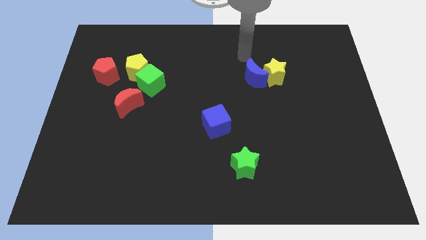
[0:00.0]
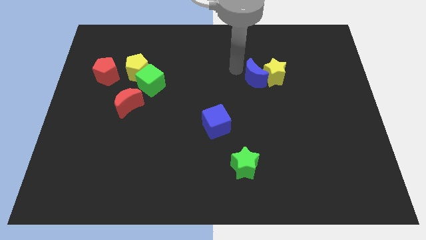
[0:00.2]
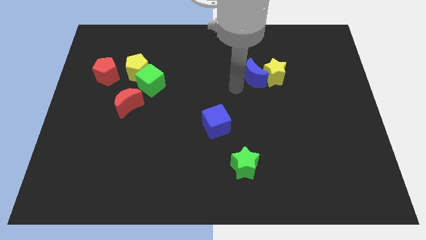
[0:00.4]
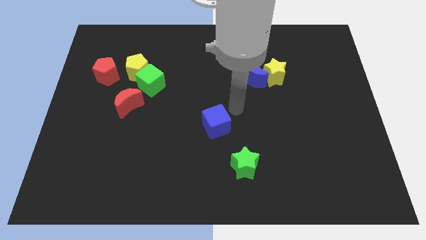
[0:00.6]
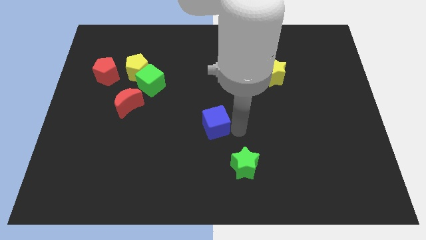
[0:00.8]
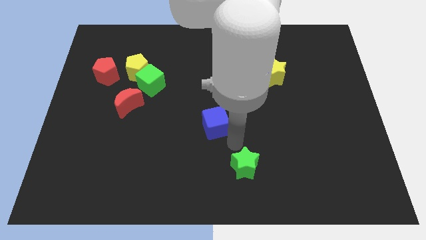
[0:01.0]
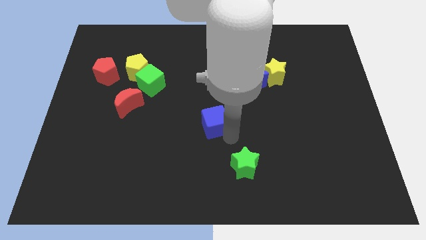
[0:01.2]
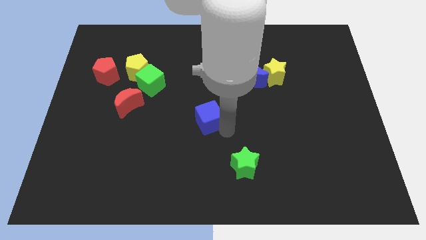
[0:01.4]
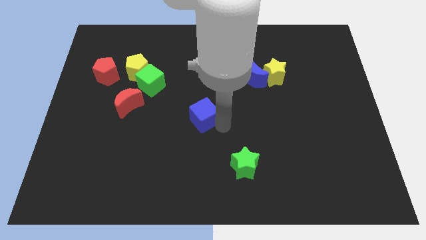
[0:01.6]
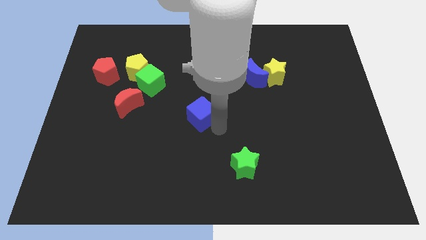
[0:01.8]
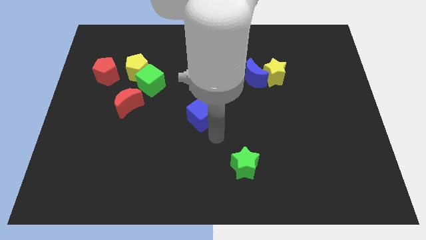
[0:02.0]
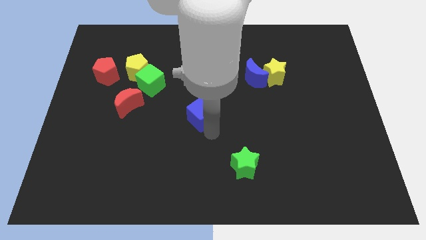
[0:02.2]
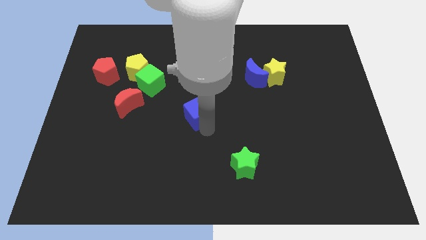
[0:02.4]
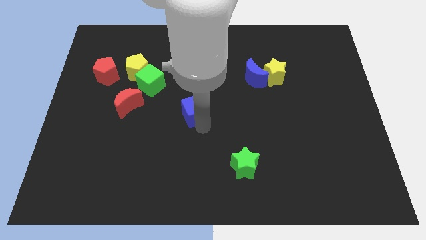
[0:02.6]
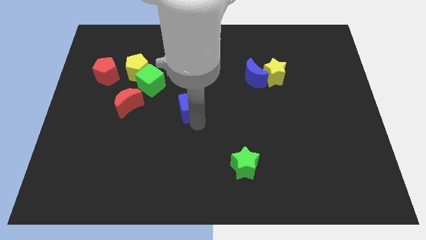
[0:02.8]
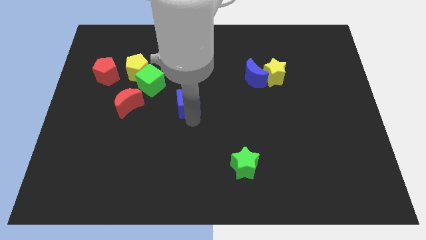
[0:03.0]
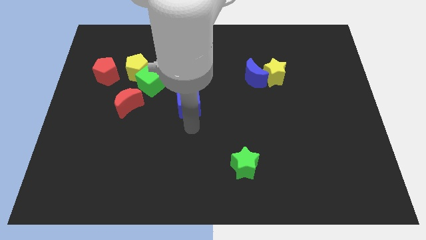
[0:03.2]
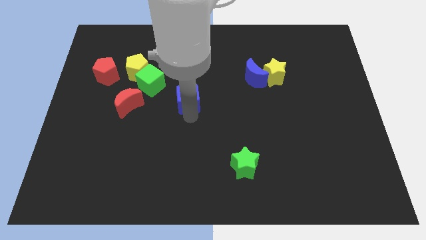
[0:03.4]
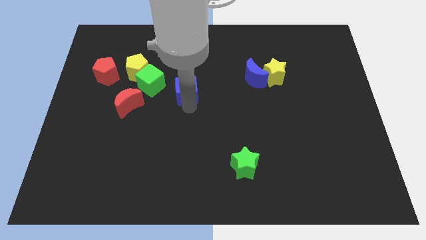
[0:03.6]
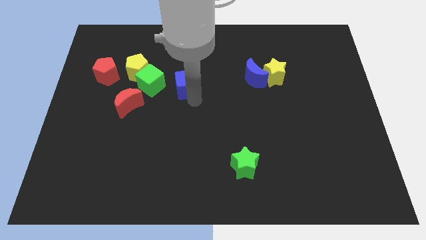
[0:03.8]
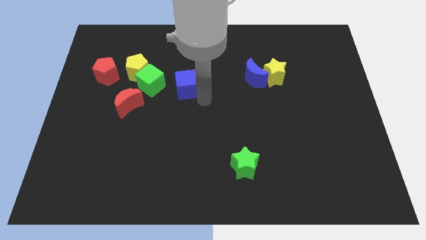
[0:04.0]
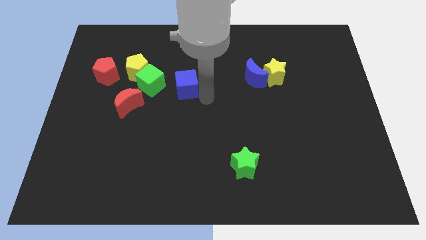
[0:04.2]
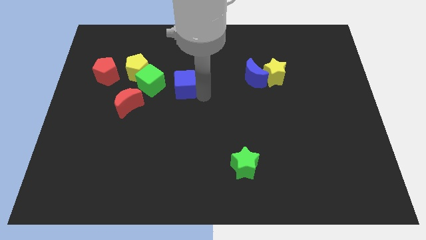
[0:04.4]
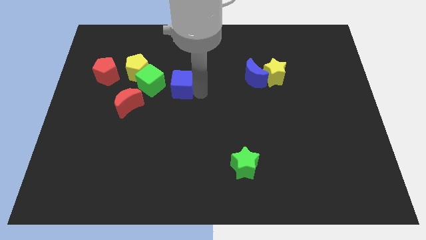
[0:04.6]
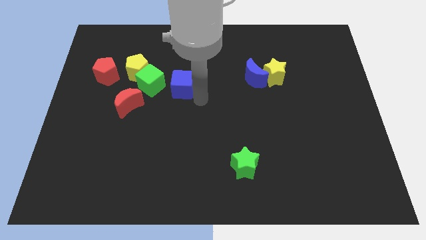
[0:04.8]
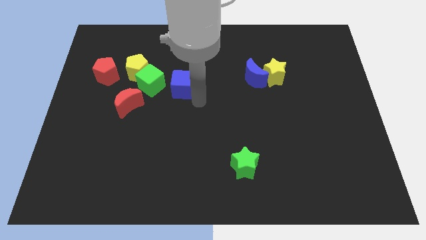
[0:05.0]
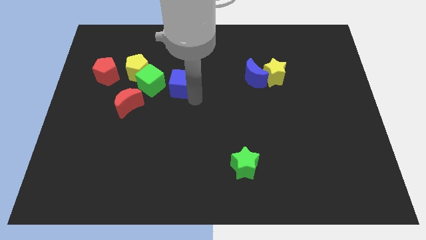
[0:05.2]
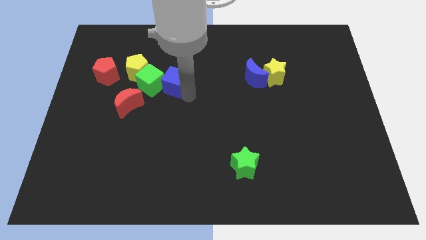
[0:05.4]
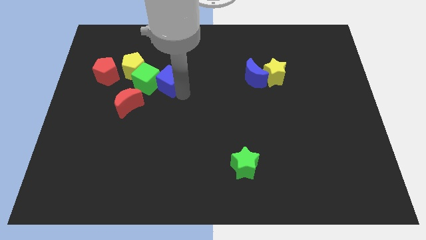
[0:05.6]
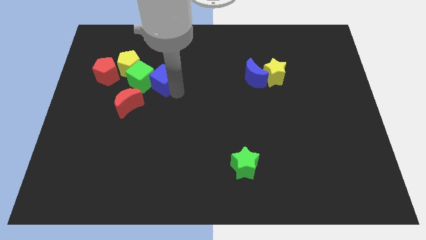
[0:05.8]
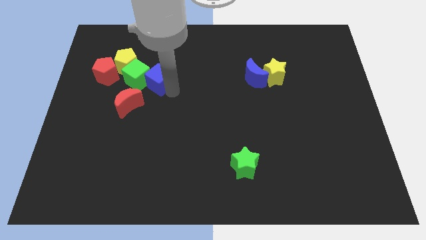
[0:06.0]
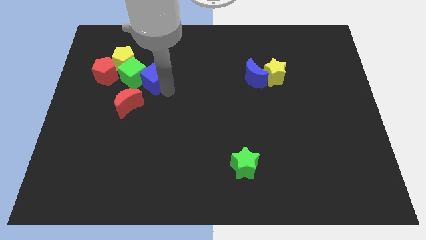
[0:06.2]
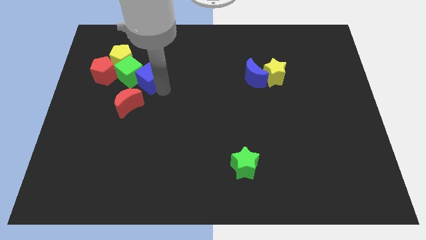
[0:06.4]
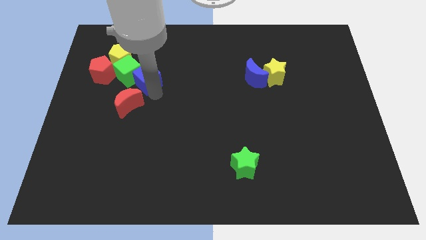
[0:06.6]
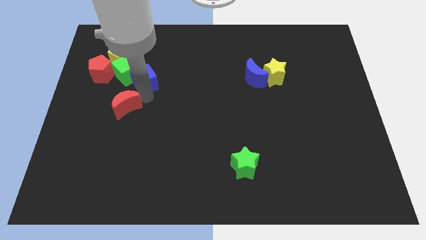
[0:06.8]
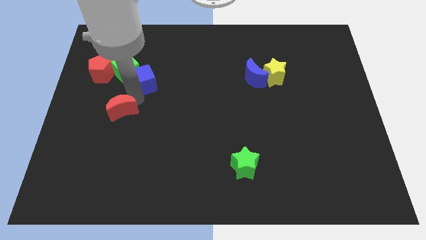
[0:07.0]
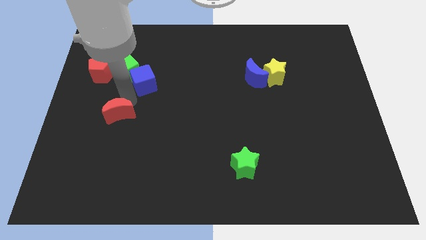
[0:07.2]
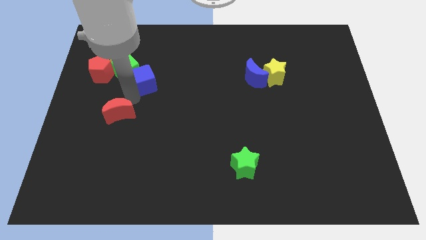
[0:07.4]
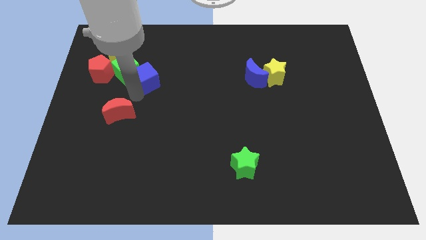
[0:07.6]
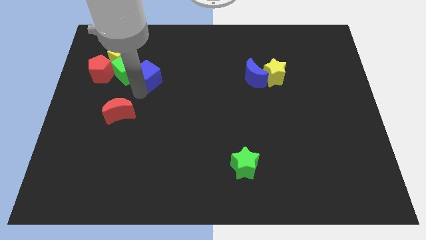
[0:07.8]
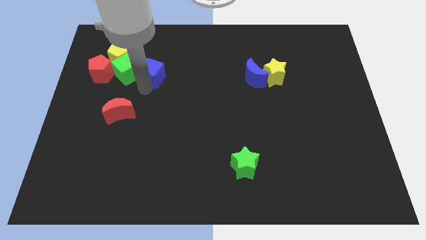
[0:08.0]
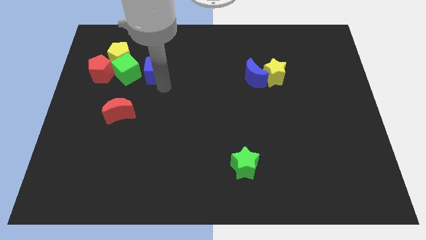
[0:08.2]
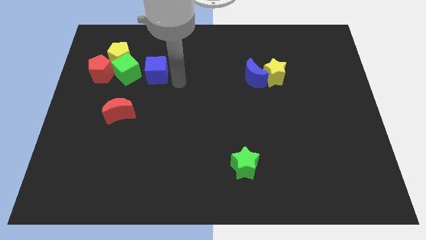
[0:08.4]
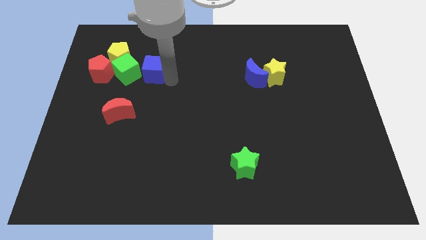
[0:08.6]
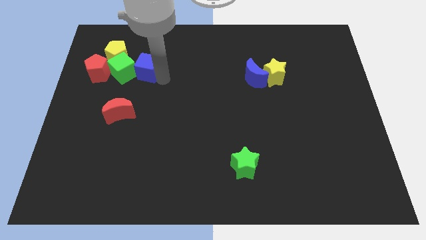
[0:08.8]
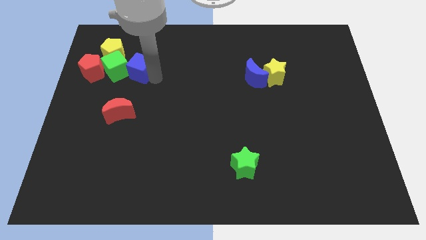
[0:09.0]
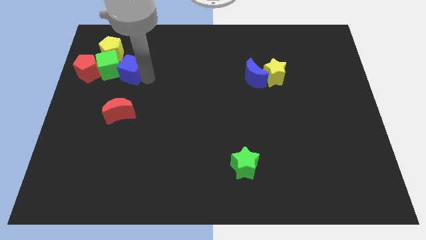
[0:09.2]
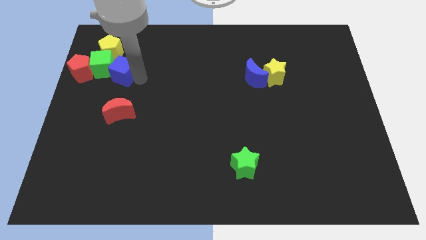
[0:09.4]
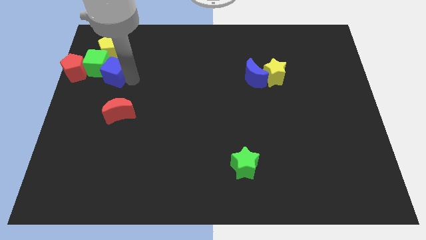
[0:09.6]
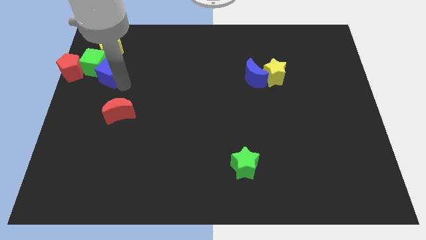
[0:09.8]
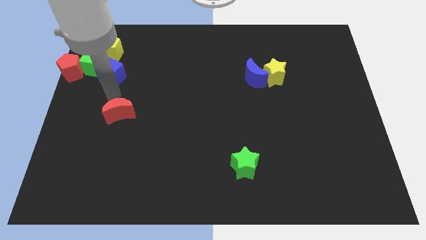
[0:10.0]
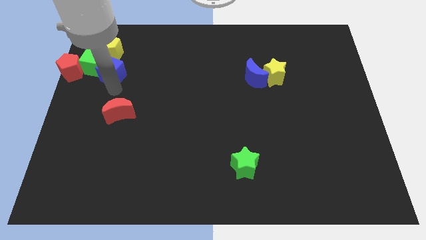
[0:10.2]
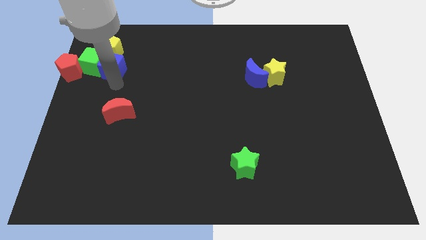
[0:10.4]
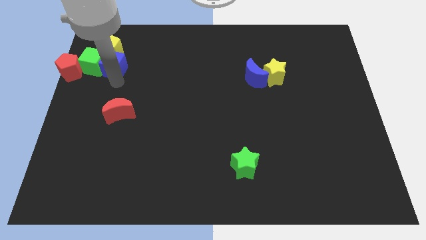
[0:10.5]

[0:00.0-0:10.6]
slide the blue cube to the yellow pentagon

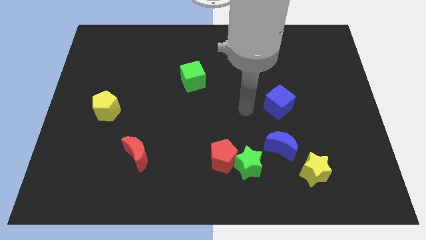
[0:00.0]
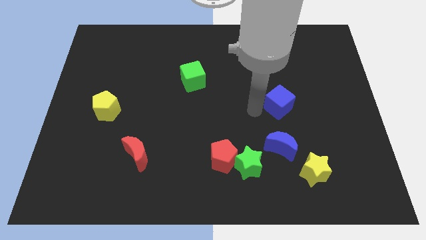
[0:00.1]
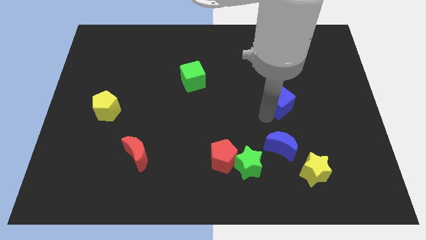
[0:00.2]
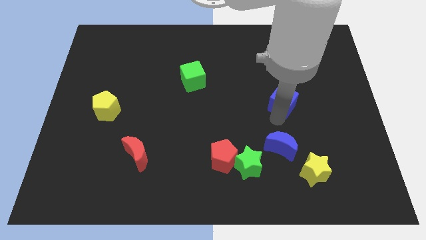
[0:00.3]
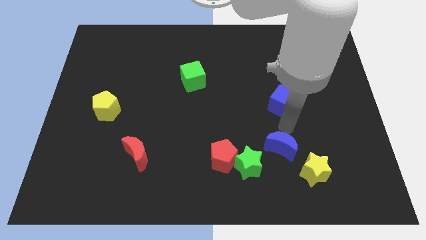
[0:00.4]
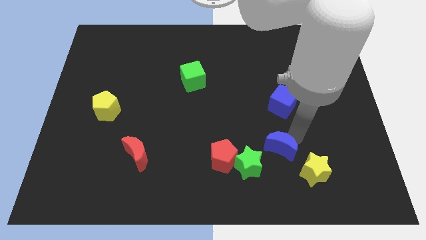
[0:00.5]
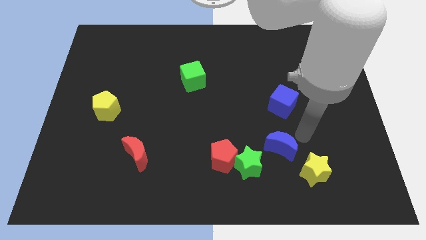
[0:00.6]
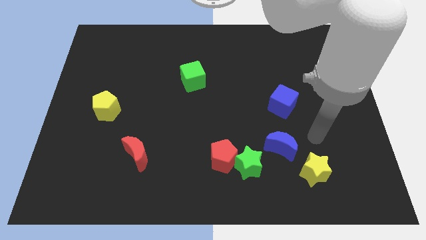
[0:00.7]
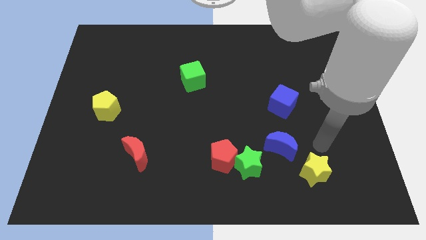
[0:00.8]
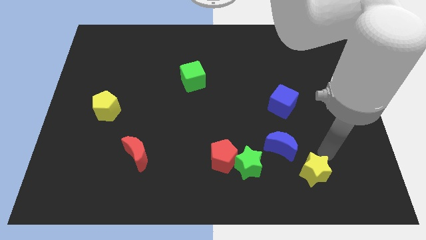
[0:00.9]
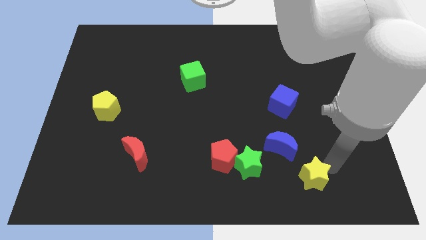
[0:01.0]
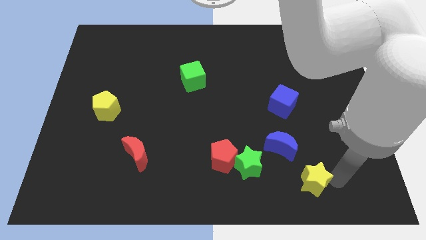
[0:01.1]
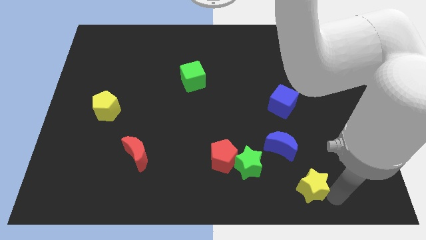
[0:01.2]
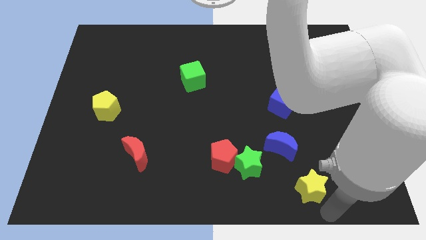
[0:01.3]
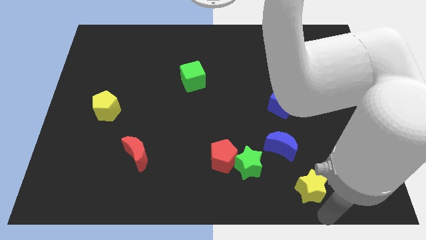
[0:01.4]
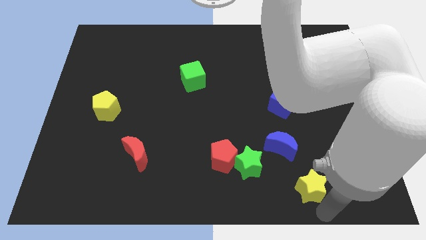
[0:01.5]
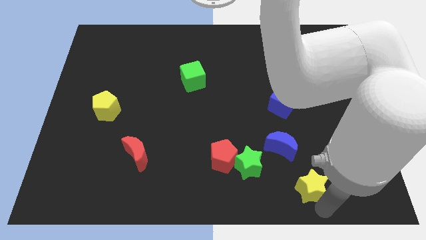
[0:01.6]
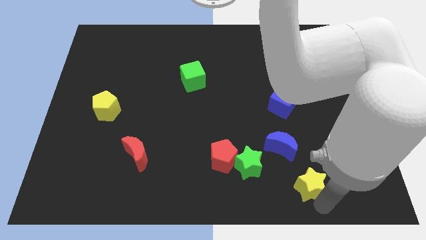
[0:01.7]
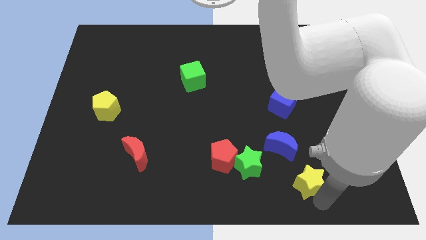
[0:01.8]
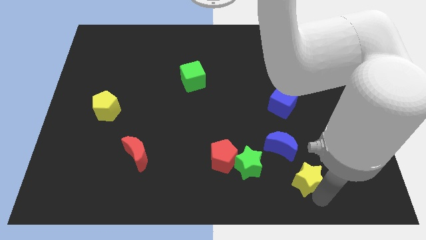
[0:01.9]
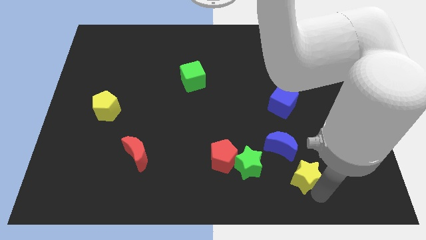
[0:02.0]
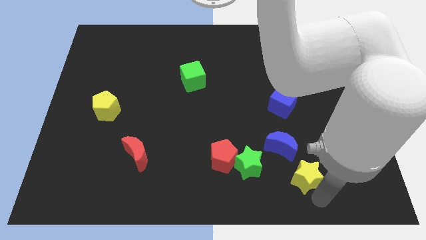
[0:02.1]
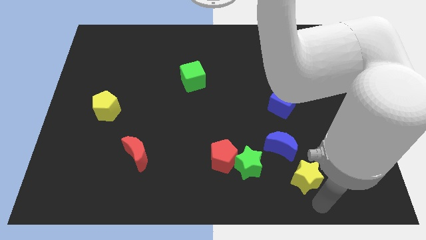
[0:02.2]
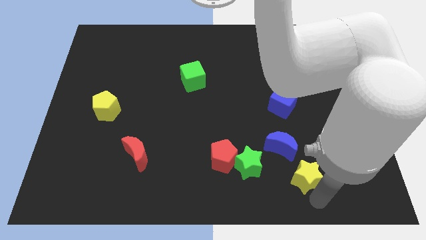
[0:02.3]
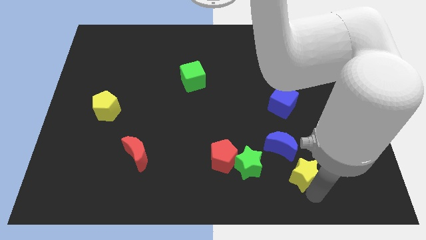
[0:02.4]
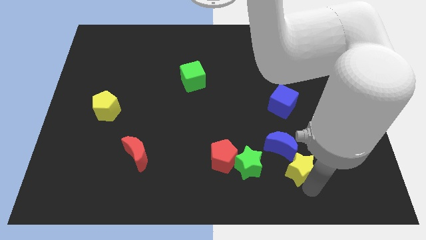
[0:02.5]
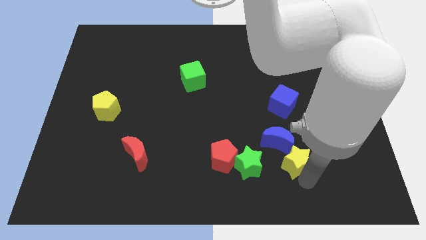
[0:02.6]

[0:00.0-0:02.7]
put the yellow star towards the blue moon
